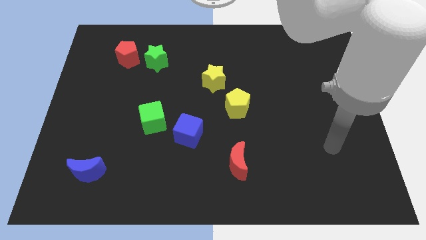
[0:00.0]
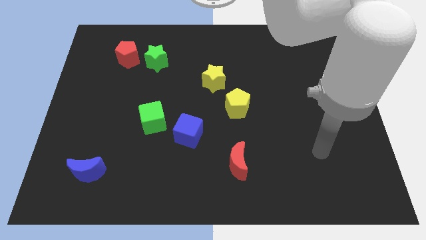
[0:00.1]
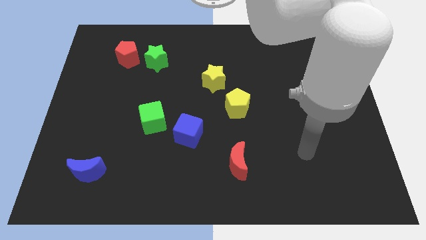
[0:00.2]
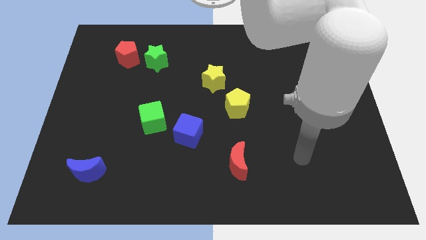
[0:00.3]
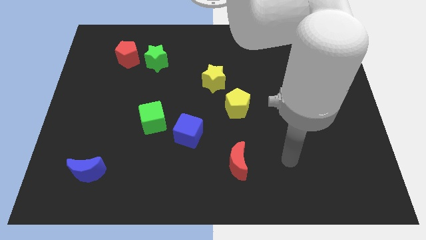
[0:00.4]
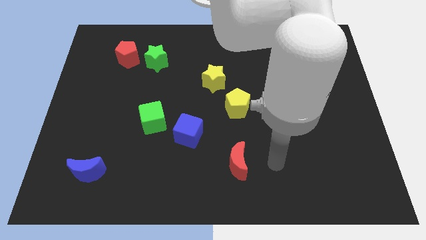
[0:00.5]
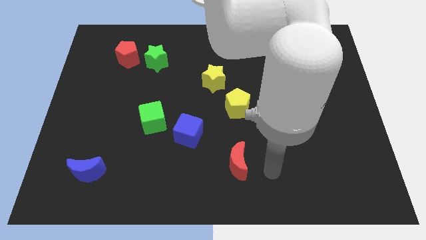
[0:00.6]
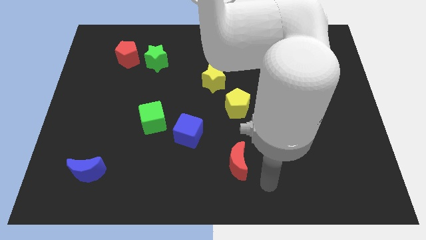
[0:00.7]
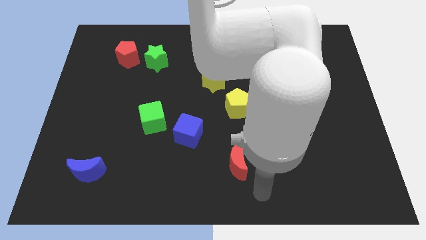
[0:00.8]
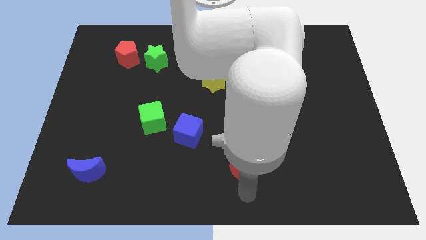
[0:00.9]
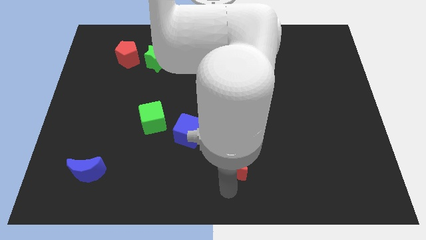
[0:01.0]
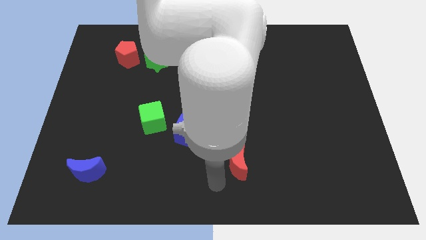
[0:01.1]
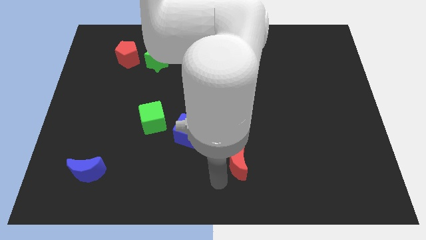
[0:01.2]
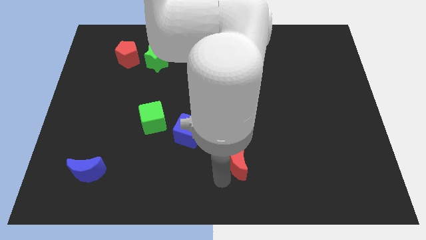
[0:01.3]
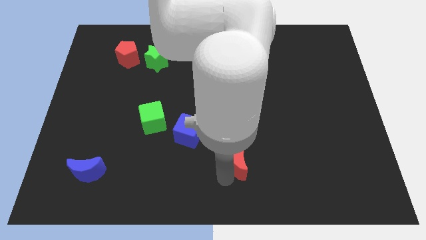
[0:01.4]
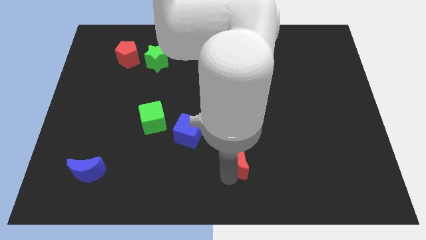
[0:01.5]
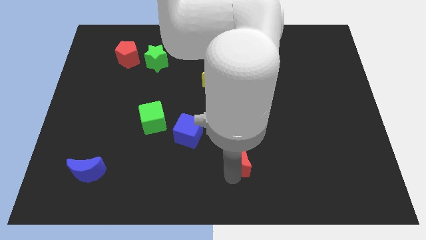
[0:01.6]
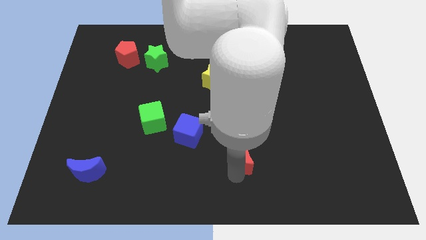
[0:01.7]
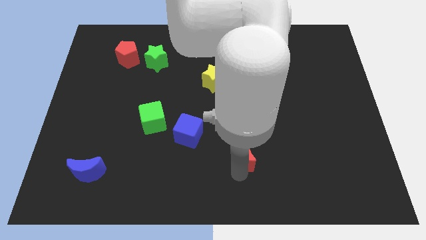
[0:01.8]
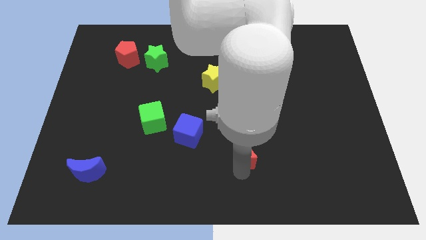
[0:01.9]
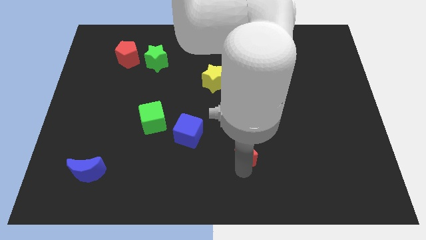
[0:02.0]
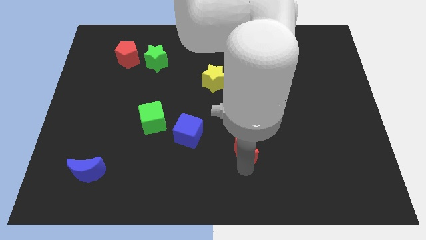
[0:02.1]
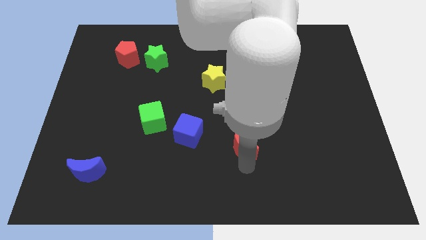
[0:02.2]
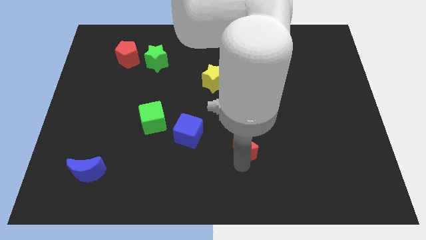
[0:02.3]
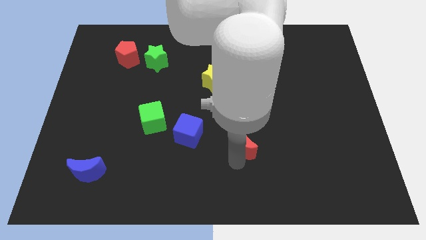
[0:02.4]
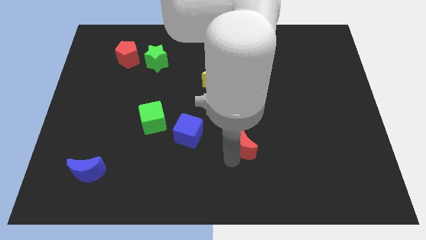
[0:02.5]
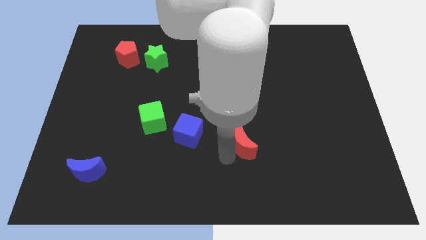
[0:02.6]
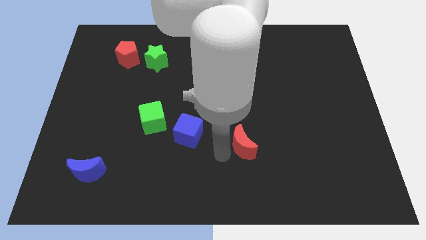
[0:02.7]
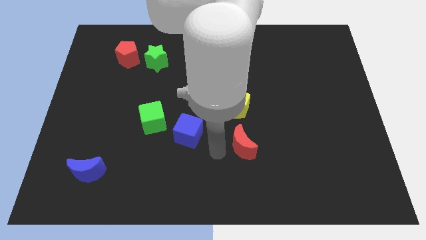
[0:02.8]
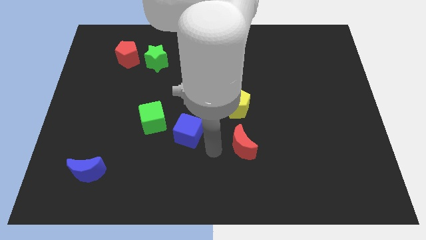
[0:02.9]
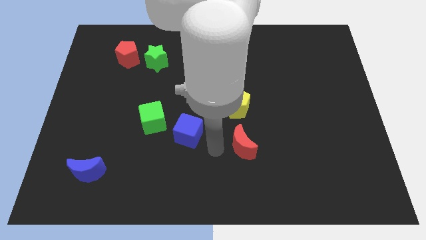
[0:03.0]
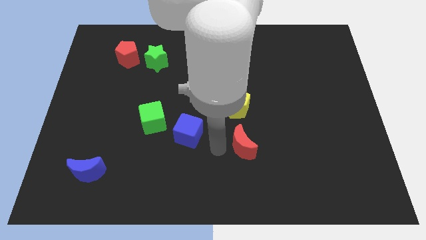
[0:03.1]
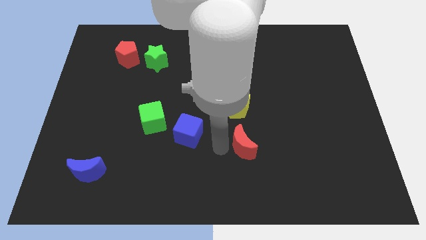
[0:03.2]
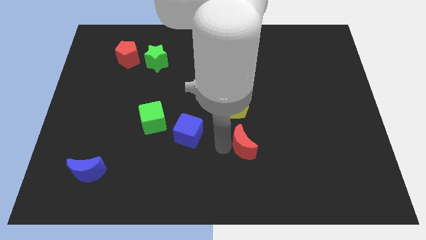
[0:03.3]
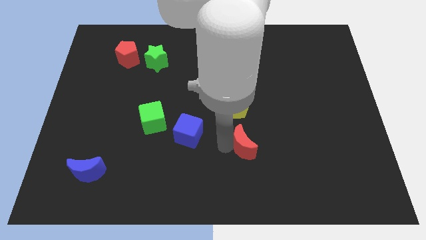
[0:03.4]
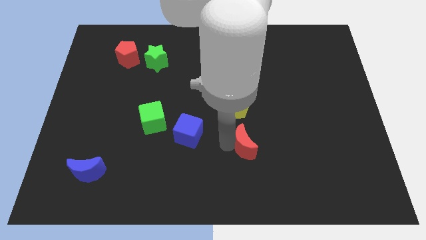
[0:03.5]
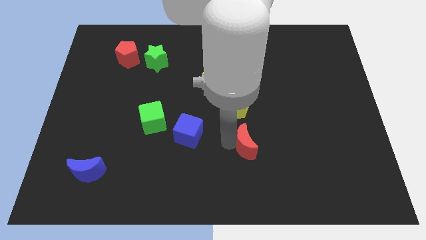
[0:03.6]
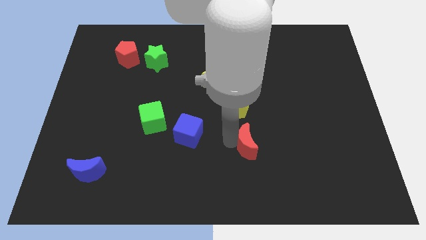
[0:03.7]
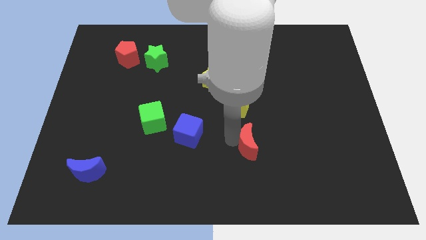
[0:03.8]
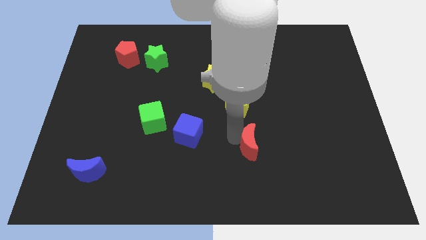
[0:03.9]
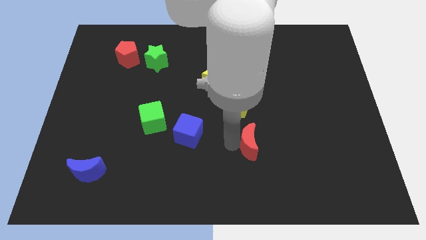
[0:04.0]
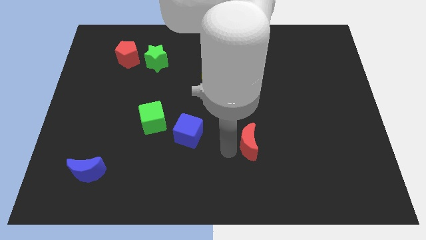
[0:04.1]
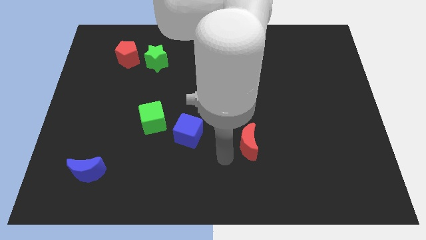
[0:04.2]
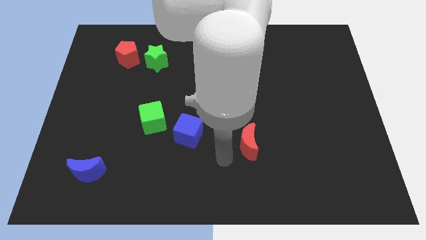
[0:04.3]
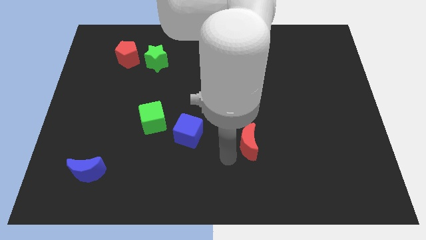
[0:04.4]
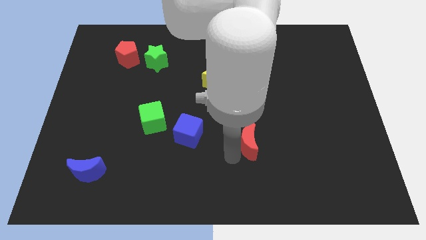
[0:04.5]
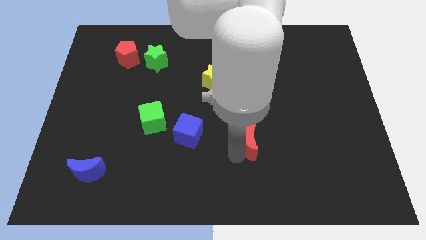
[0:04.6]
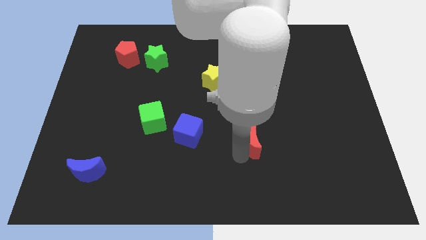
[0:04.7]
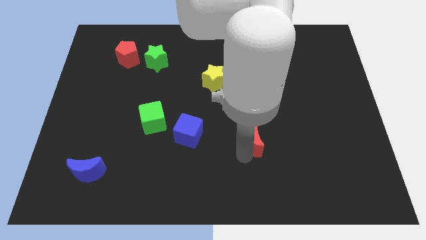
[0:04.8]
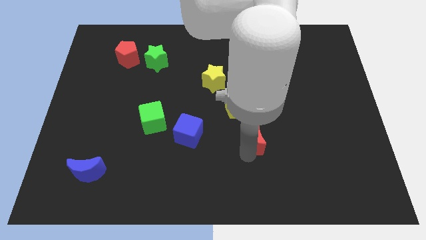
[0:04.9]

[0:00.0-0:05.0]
slide the red moon up and then to the right somewhat

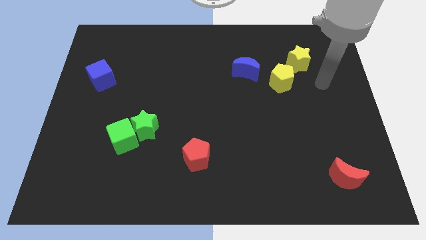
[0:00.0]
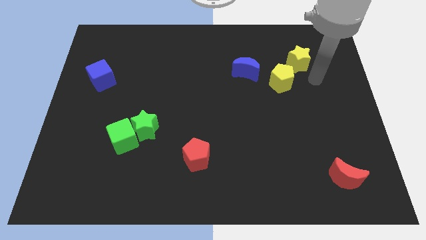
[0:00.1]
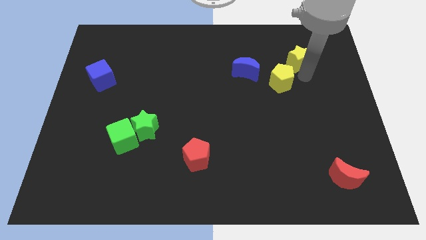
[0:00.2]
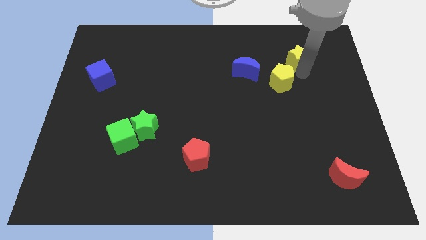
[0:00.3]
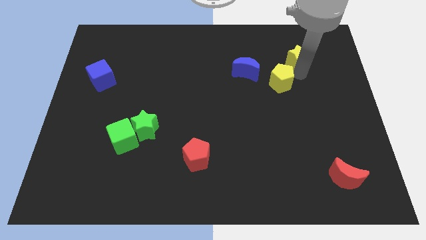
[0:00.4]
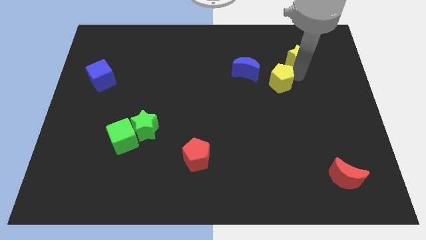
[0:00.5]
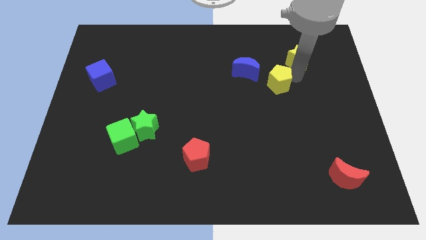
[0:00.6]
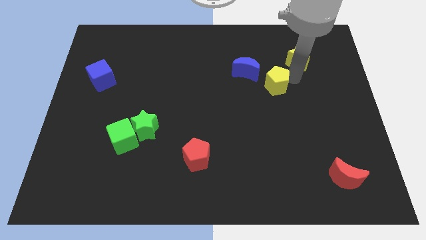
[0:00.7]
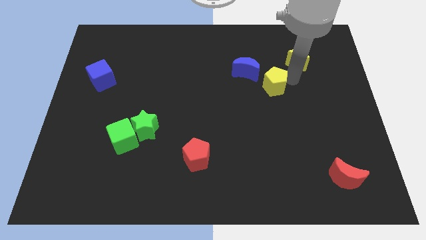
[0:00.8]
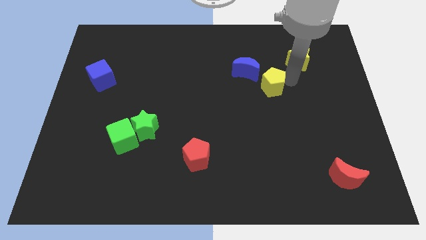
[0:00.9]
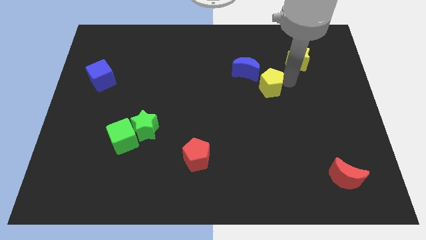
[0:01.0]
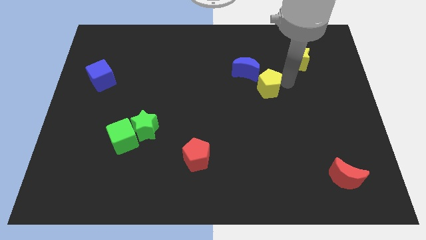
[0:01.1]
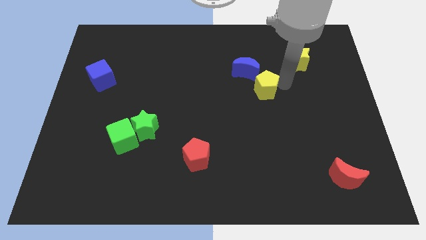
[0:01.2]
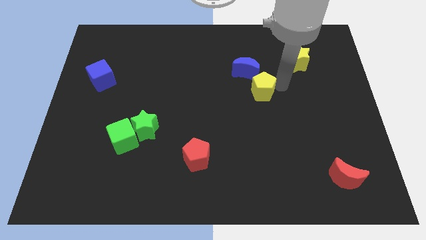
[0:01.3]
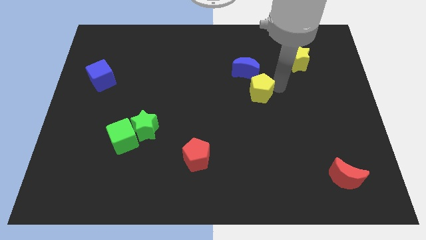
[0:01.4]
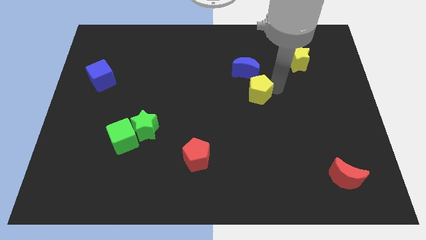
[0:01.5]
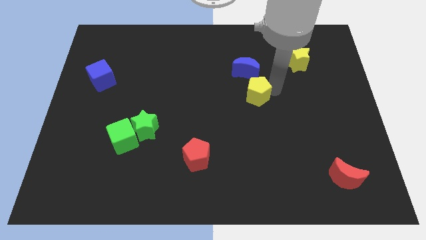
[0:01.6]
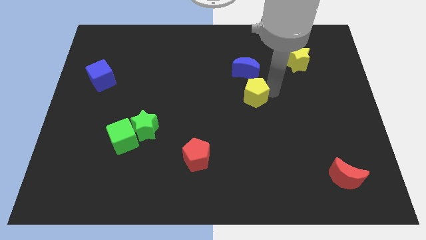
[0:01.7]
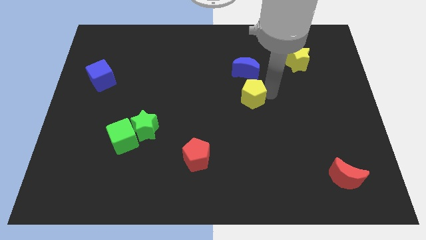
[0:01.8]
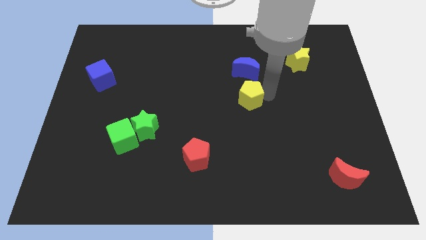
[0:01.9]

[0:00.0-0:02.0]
push the yellow pentagon to the left somewhat

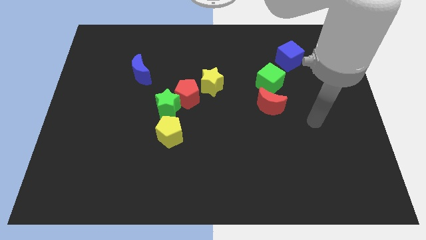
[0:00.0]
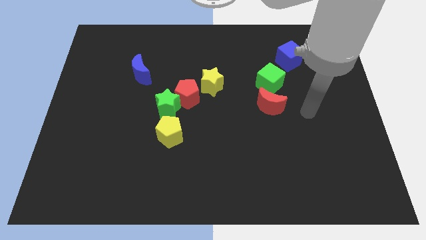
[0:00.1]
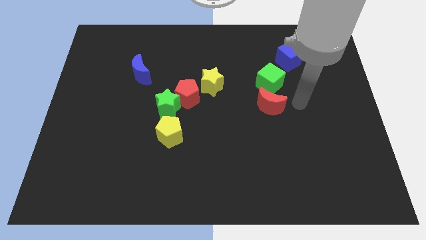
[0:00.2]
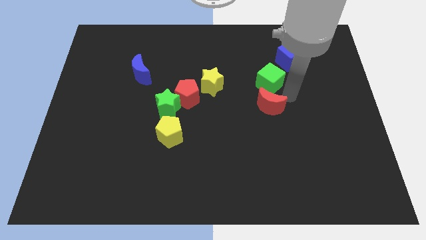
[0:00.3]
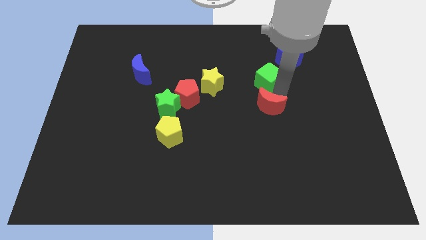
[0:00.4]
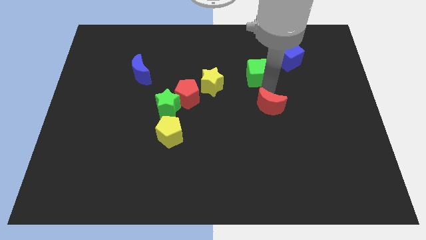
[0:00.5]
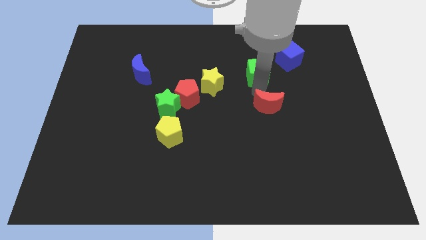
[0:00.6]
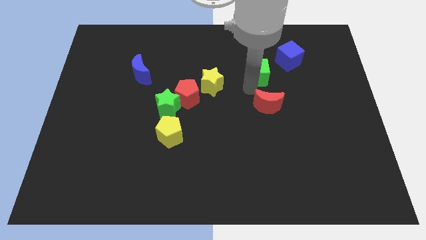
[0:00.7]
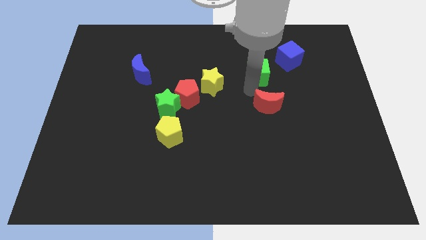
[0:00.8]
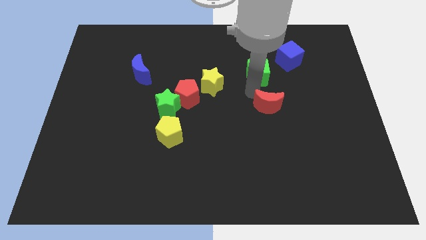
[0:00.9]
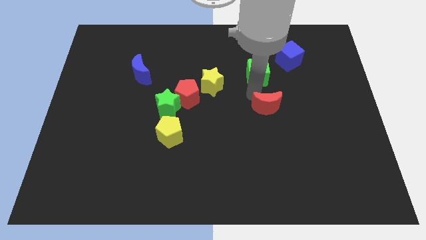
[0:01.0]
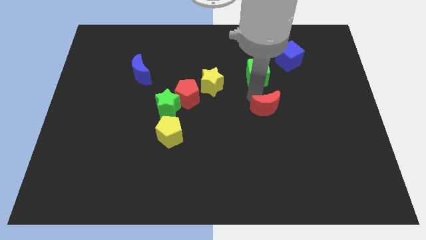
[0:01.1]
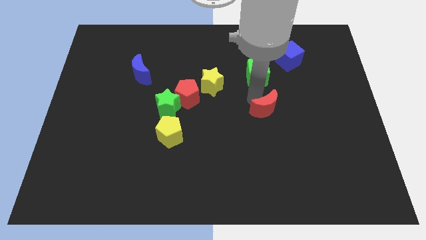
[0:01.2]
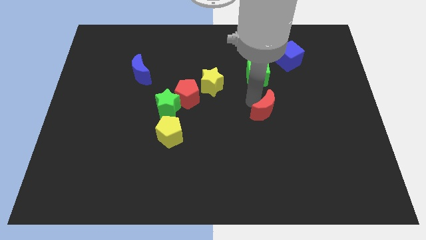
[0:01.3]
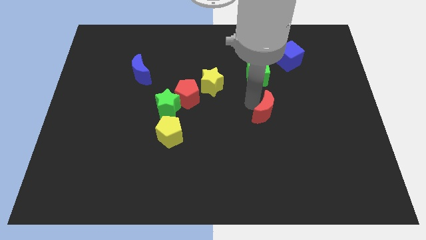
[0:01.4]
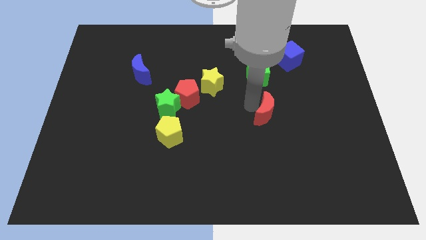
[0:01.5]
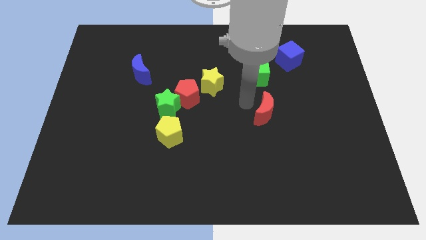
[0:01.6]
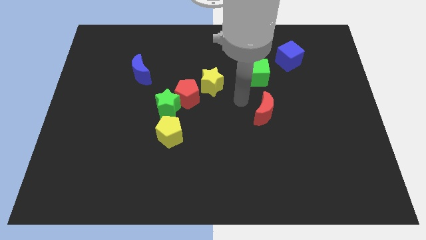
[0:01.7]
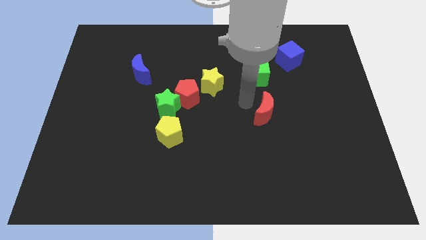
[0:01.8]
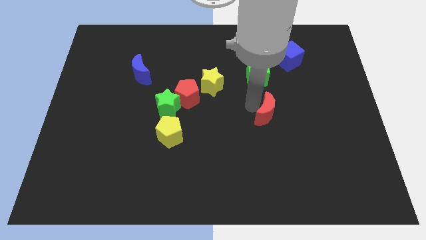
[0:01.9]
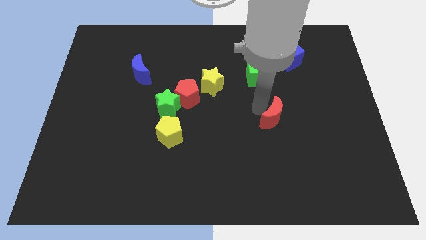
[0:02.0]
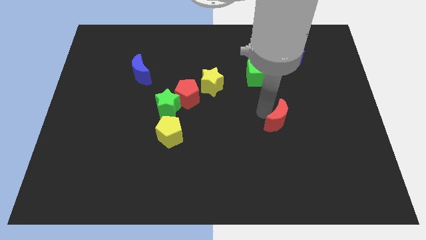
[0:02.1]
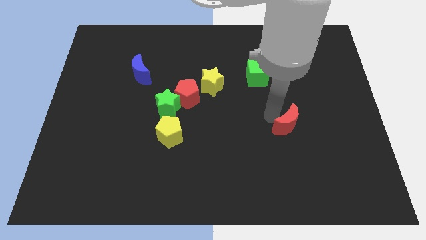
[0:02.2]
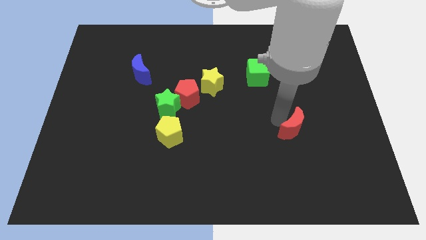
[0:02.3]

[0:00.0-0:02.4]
slightly slide the red moon diagonally down and right
